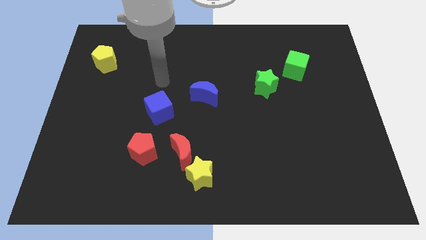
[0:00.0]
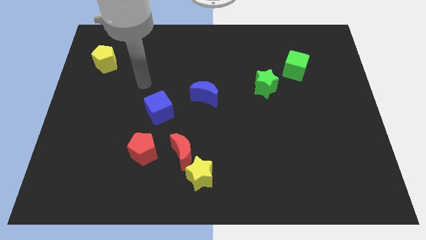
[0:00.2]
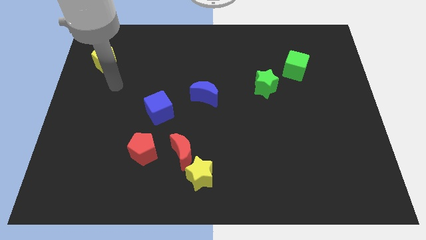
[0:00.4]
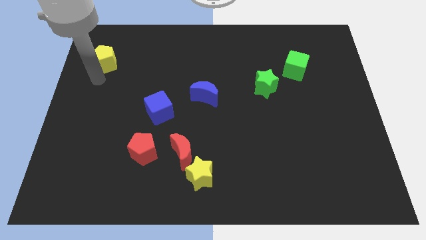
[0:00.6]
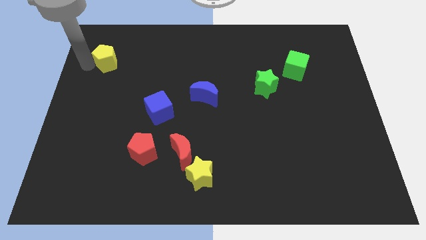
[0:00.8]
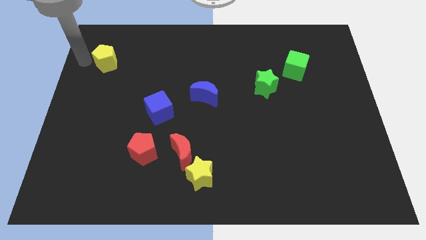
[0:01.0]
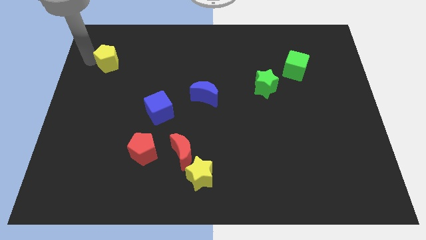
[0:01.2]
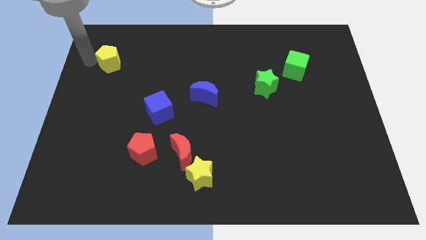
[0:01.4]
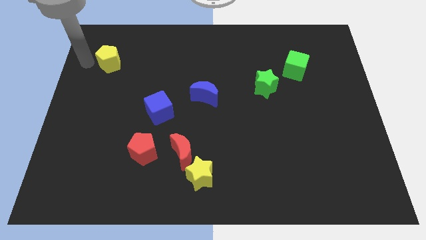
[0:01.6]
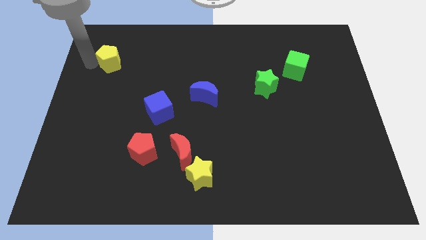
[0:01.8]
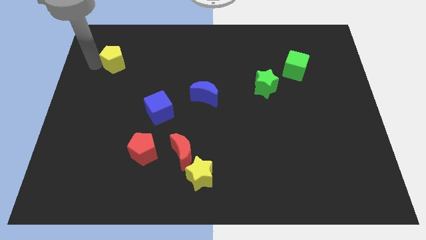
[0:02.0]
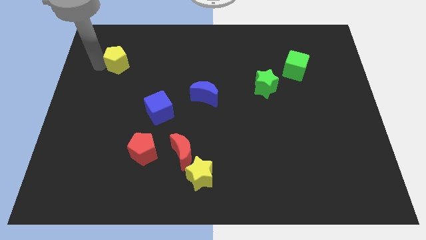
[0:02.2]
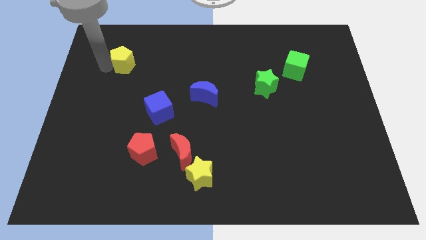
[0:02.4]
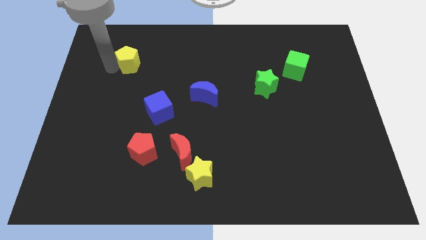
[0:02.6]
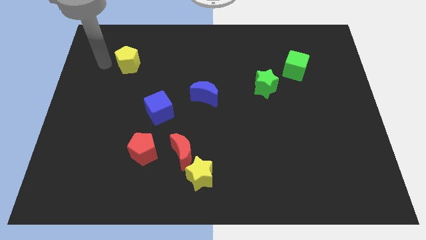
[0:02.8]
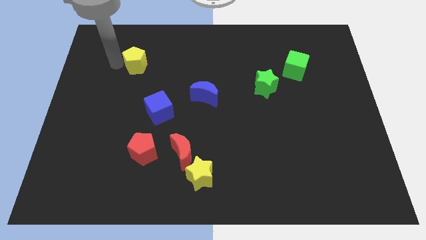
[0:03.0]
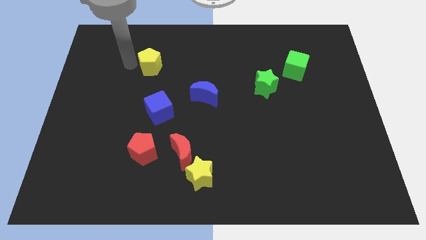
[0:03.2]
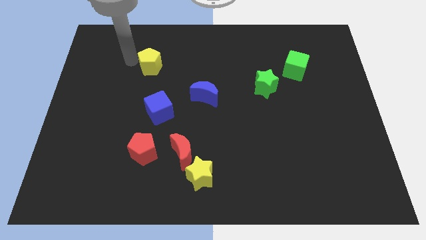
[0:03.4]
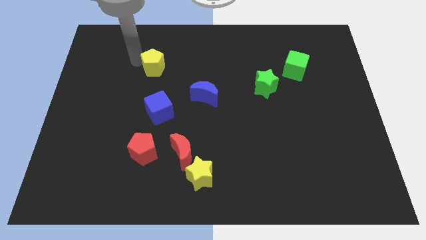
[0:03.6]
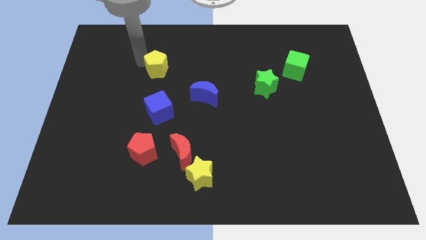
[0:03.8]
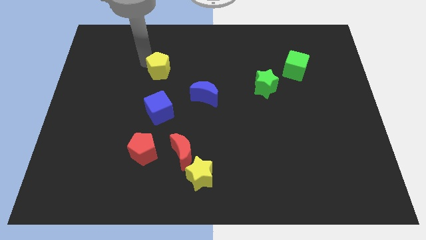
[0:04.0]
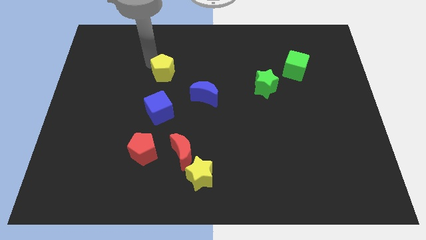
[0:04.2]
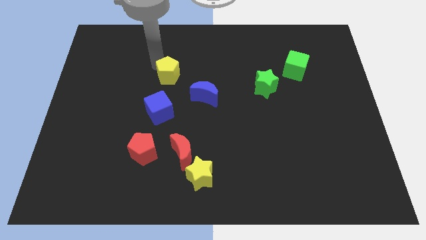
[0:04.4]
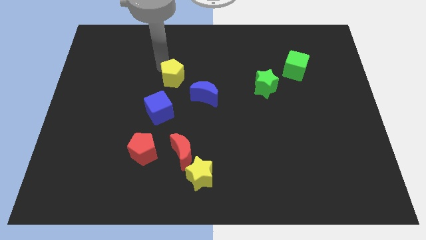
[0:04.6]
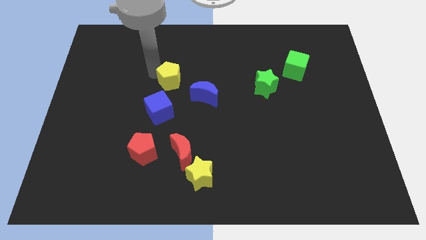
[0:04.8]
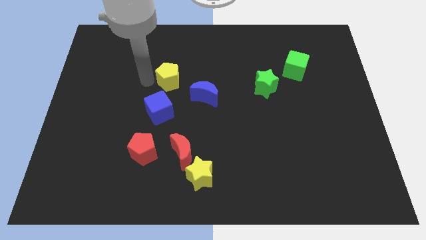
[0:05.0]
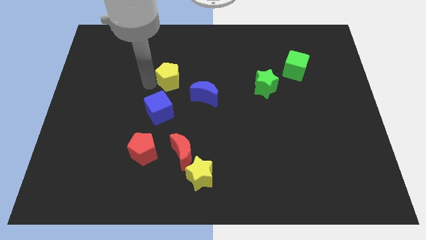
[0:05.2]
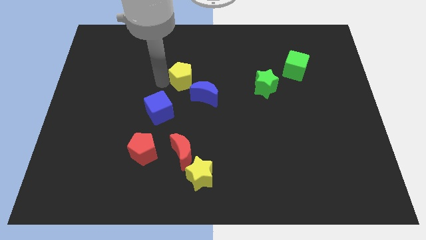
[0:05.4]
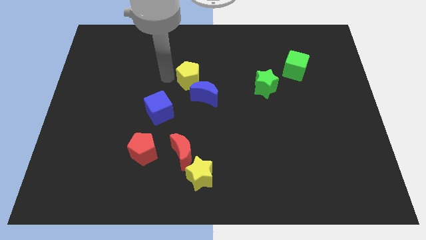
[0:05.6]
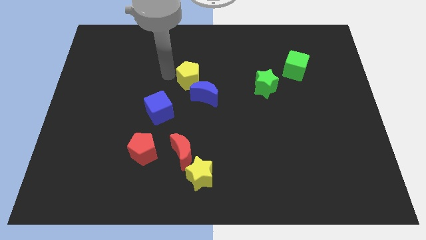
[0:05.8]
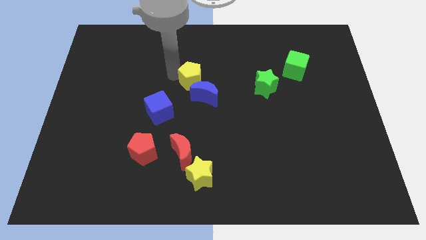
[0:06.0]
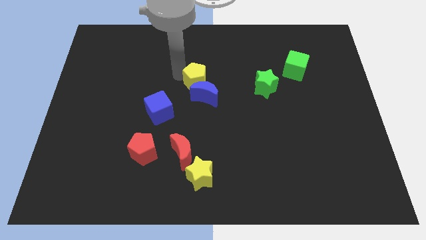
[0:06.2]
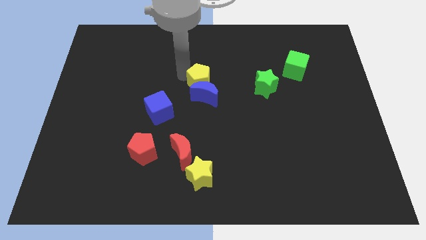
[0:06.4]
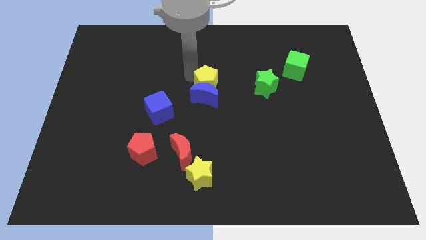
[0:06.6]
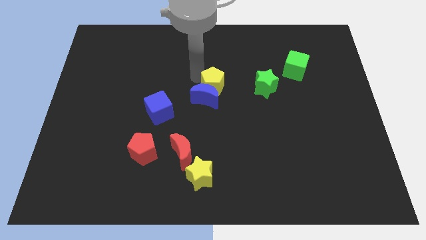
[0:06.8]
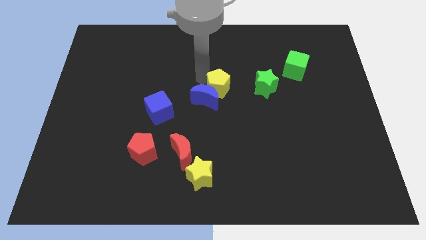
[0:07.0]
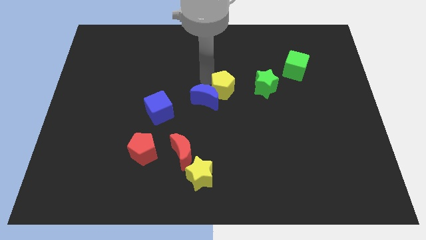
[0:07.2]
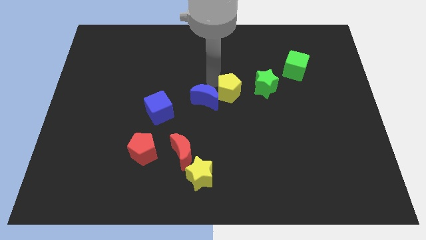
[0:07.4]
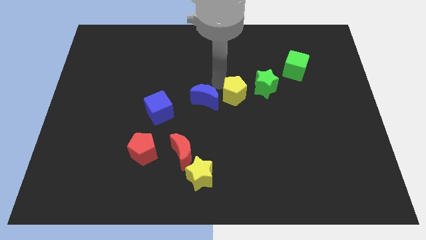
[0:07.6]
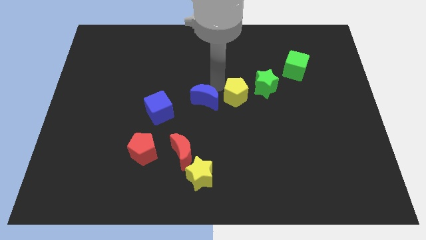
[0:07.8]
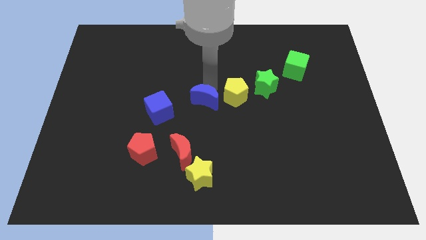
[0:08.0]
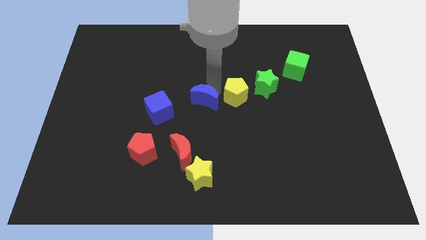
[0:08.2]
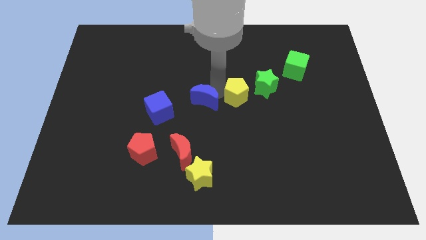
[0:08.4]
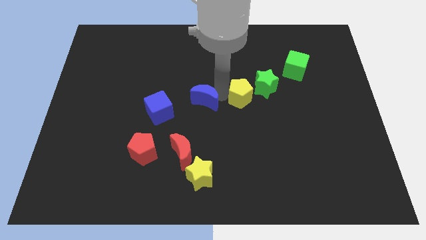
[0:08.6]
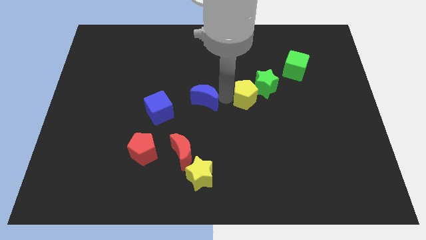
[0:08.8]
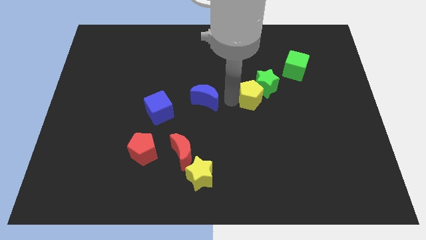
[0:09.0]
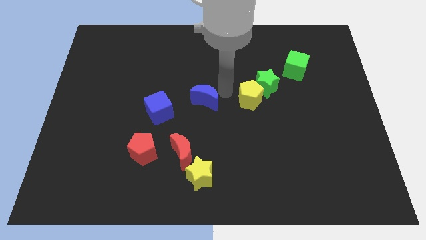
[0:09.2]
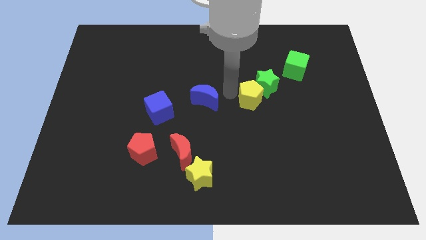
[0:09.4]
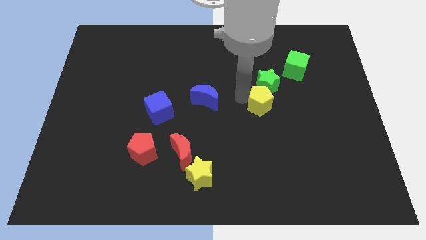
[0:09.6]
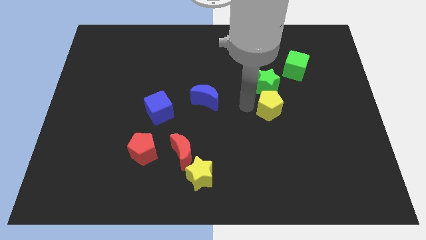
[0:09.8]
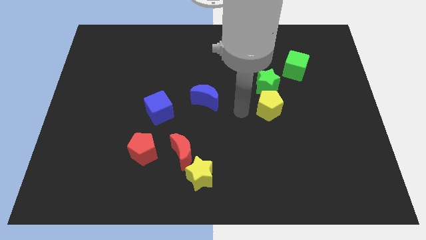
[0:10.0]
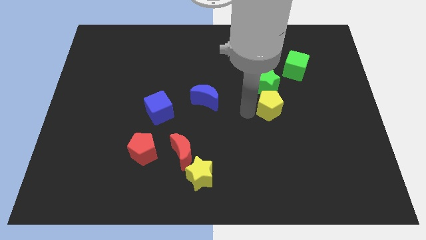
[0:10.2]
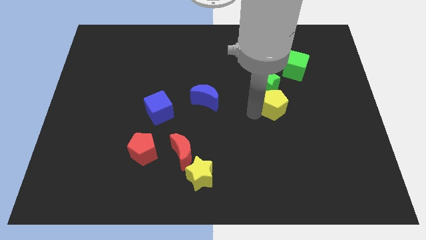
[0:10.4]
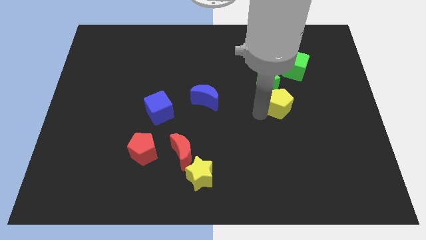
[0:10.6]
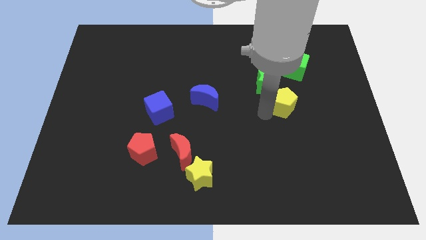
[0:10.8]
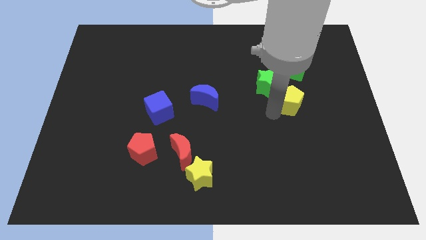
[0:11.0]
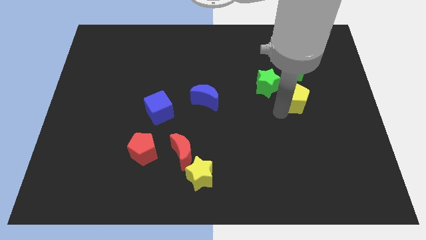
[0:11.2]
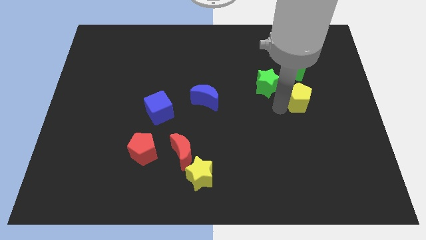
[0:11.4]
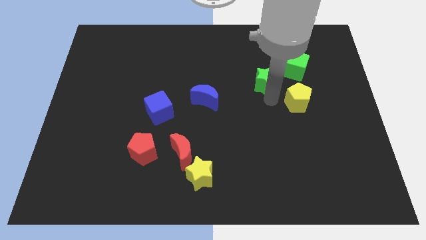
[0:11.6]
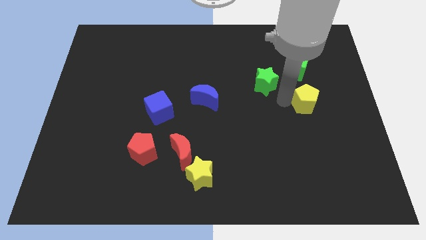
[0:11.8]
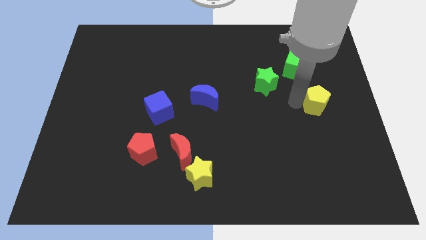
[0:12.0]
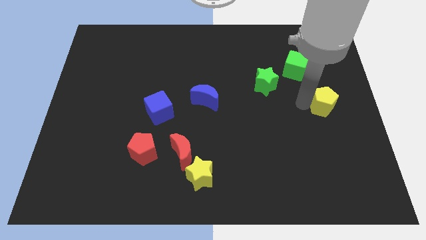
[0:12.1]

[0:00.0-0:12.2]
put the yellow pentagon to the right side of the board

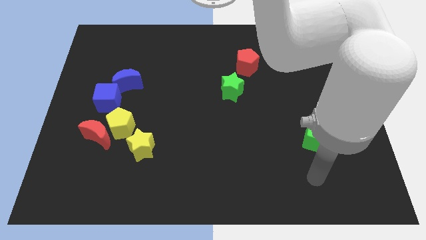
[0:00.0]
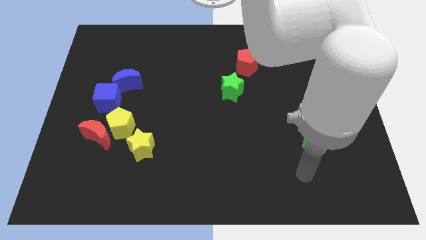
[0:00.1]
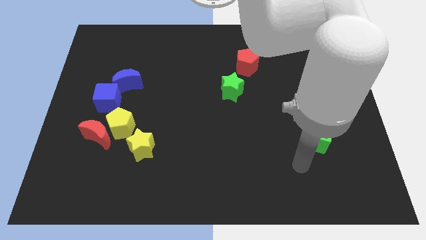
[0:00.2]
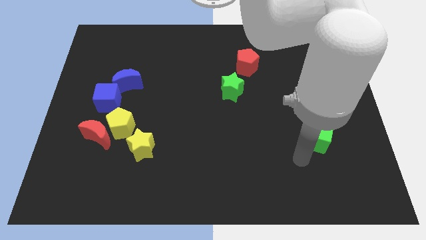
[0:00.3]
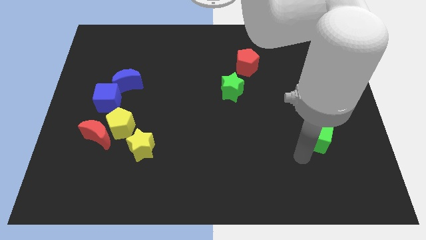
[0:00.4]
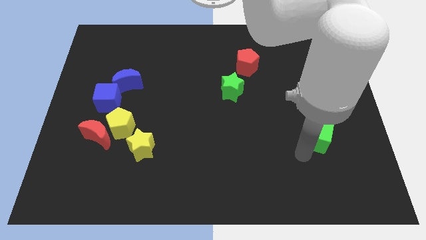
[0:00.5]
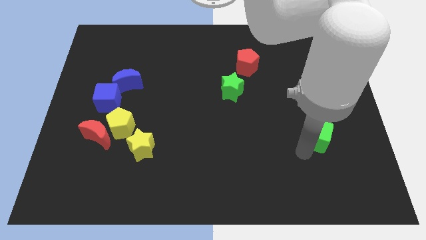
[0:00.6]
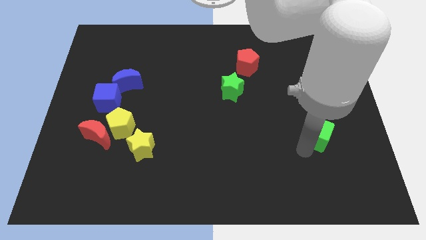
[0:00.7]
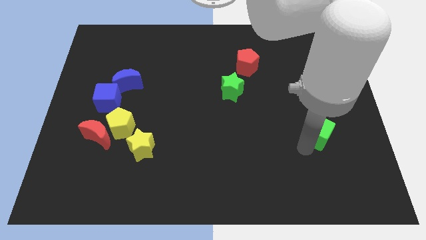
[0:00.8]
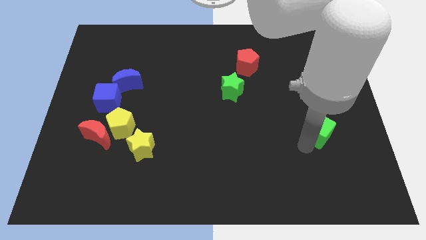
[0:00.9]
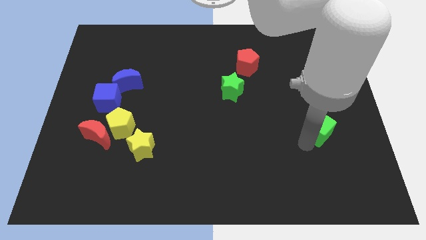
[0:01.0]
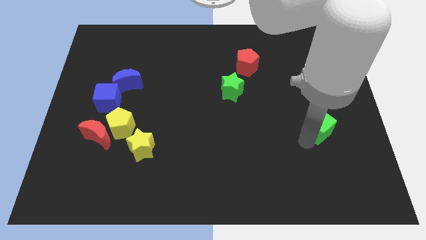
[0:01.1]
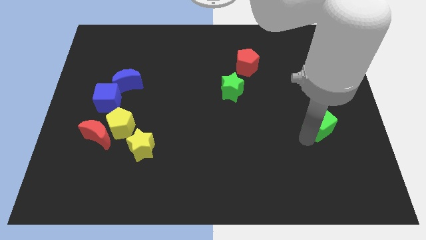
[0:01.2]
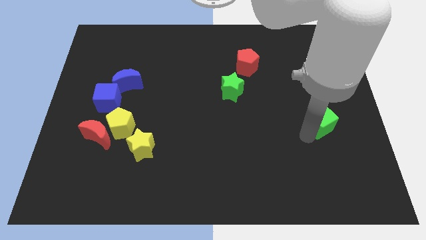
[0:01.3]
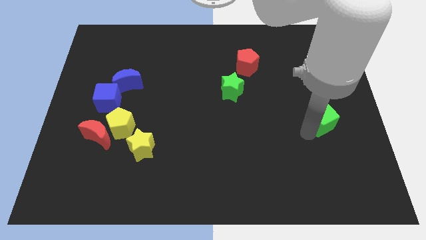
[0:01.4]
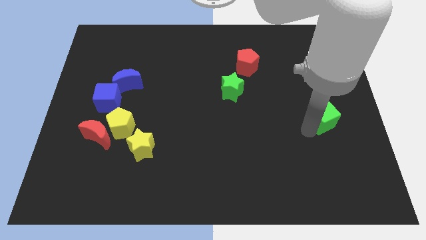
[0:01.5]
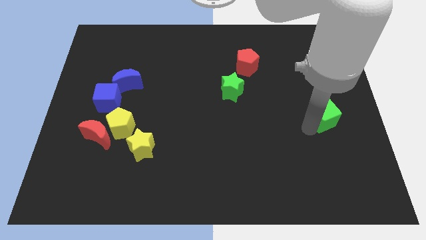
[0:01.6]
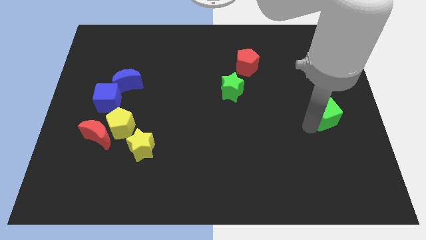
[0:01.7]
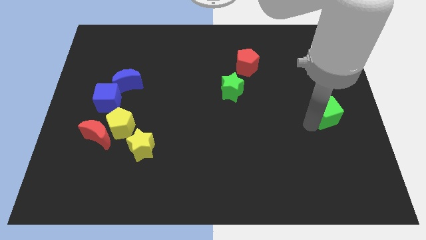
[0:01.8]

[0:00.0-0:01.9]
push the green cube to the center right
